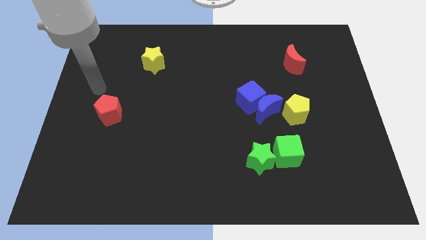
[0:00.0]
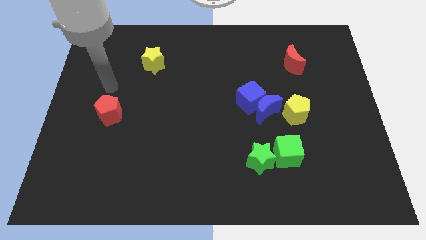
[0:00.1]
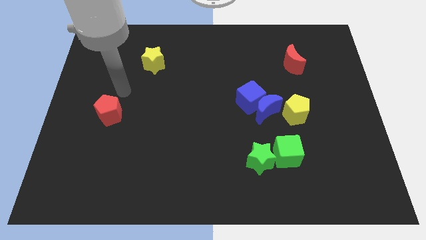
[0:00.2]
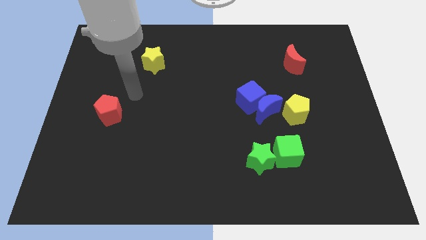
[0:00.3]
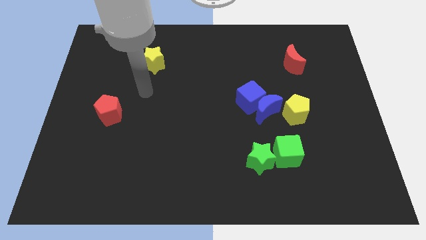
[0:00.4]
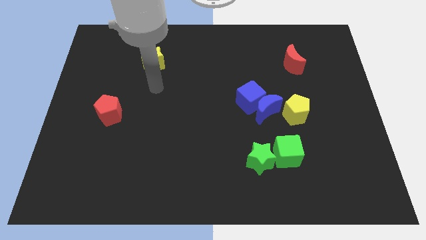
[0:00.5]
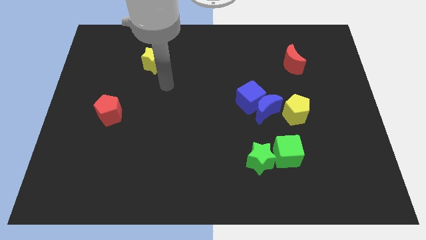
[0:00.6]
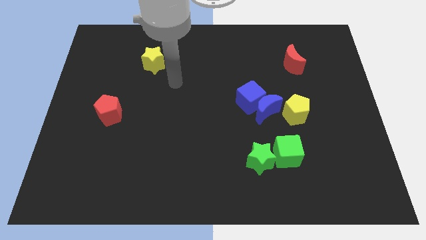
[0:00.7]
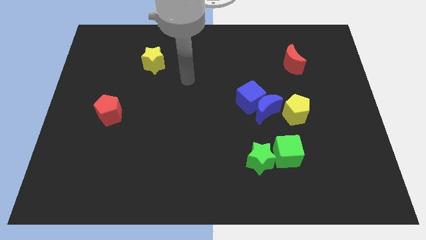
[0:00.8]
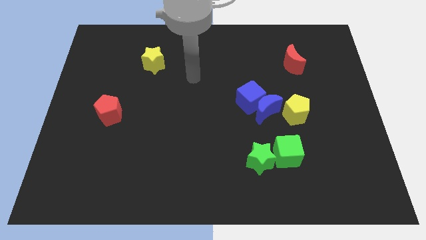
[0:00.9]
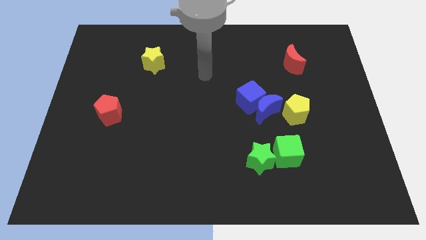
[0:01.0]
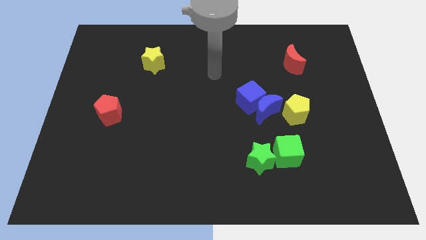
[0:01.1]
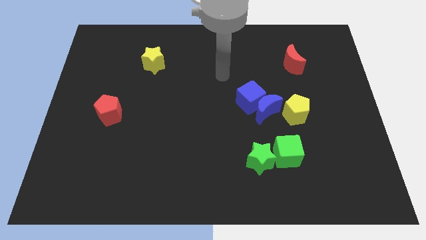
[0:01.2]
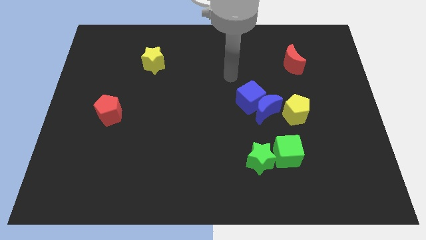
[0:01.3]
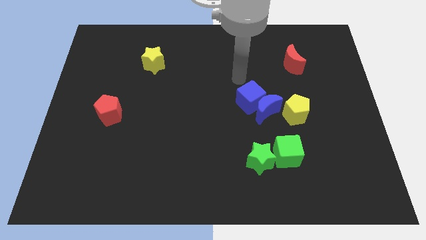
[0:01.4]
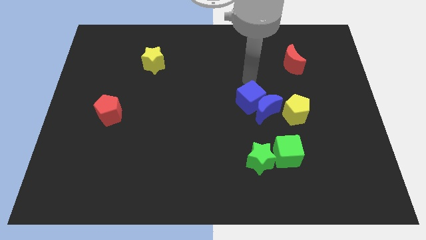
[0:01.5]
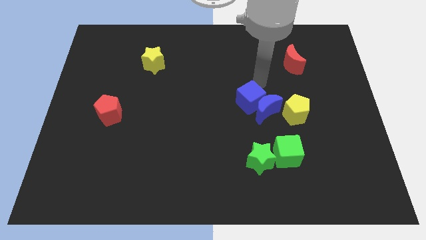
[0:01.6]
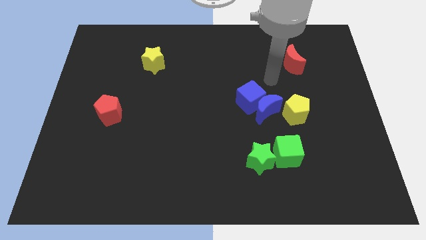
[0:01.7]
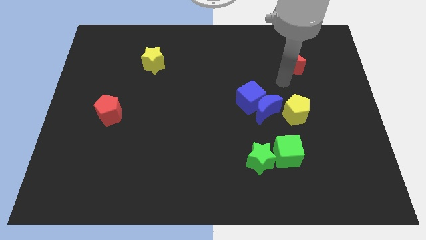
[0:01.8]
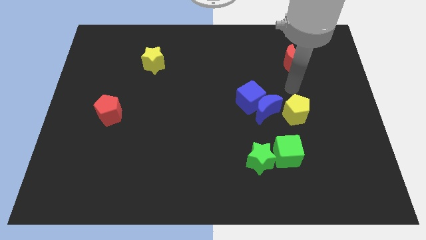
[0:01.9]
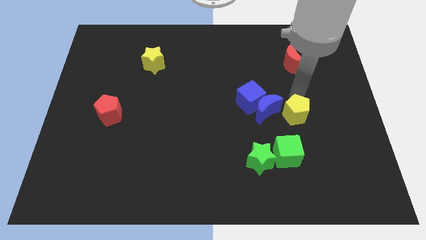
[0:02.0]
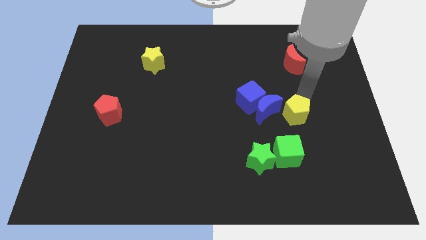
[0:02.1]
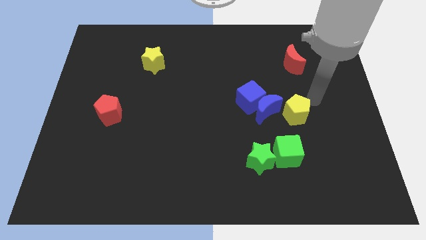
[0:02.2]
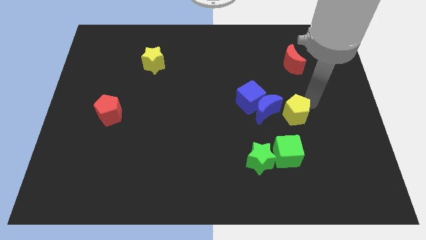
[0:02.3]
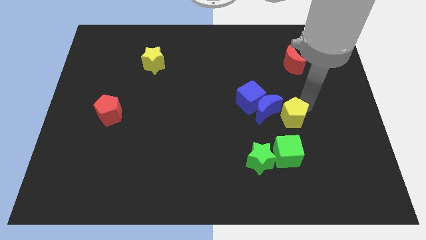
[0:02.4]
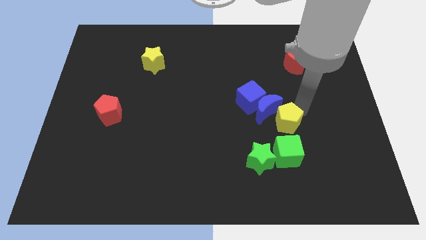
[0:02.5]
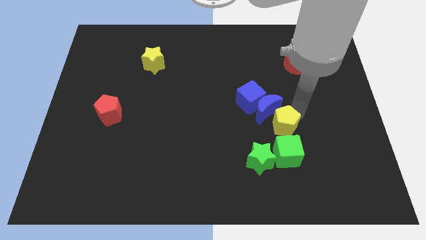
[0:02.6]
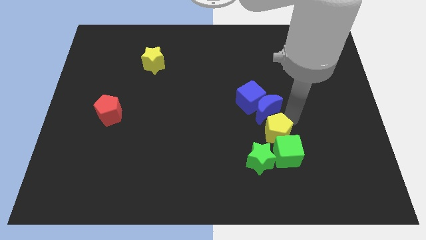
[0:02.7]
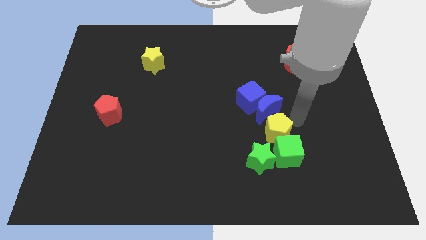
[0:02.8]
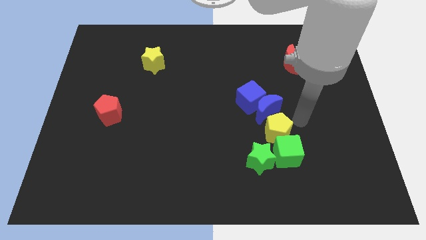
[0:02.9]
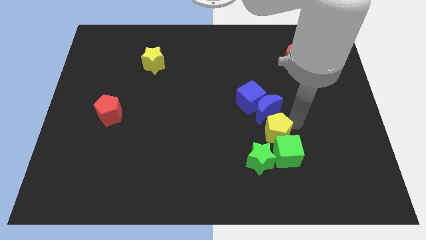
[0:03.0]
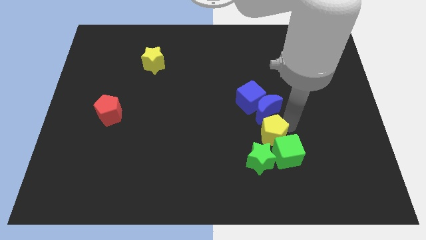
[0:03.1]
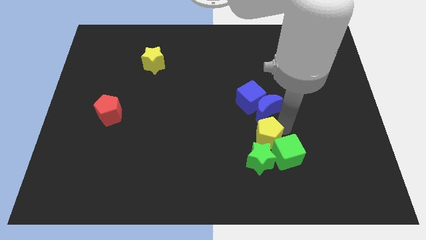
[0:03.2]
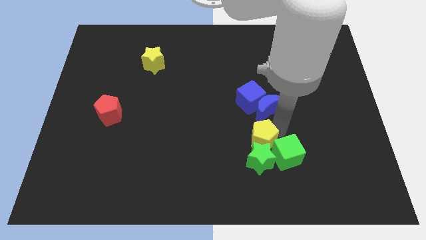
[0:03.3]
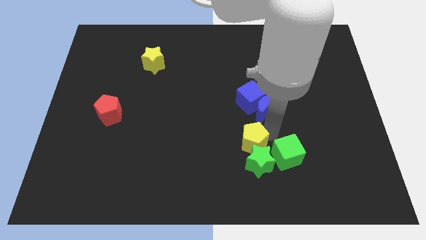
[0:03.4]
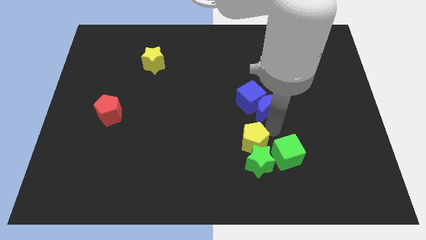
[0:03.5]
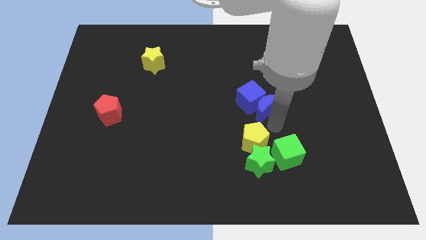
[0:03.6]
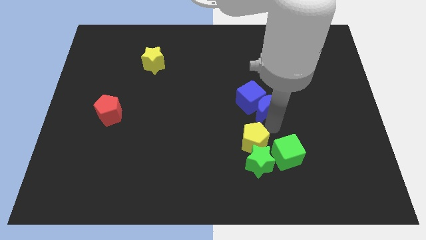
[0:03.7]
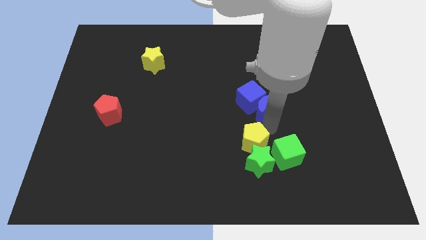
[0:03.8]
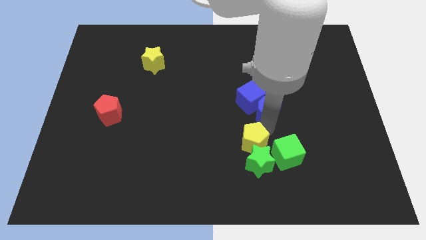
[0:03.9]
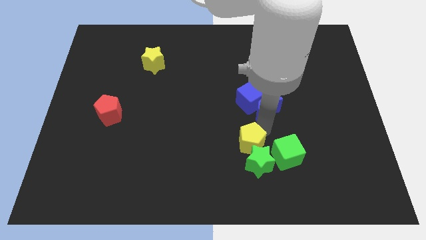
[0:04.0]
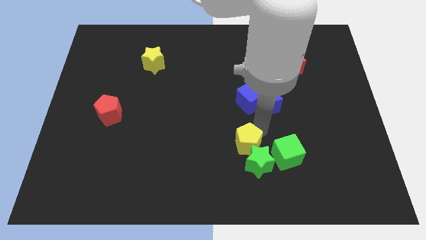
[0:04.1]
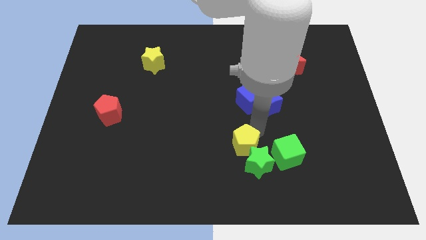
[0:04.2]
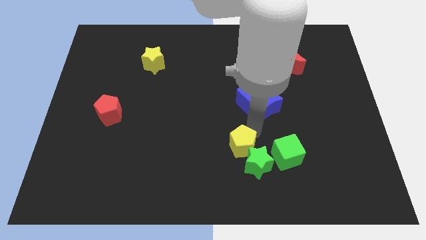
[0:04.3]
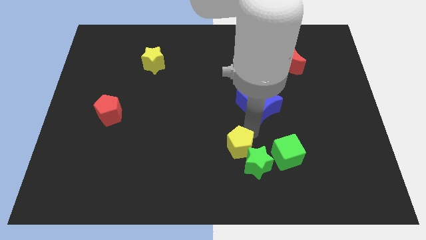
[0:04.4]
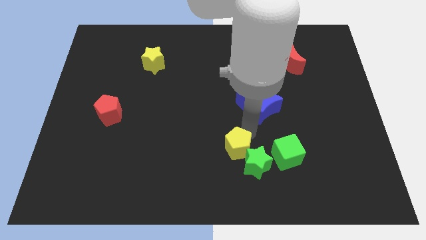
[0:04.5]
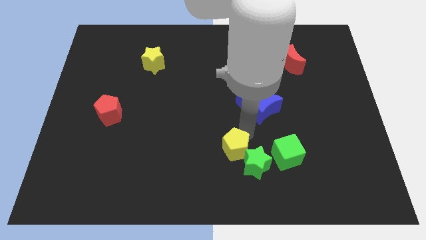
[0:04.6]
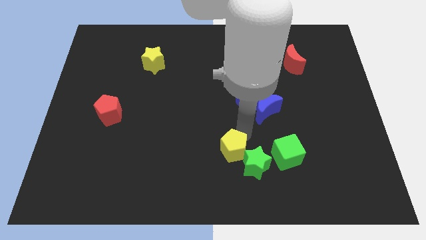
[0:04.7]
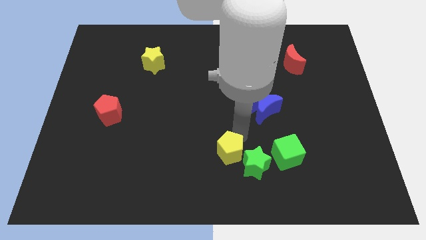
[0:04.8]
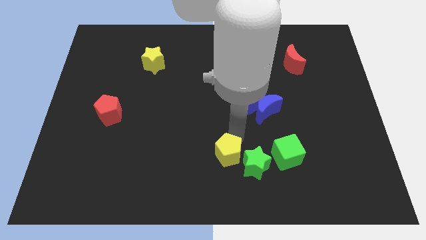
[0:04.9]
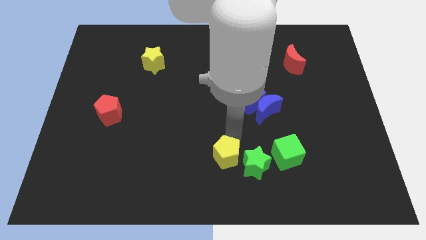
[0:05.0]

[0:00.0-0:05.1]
push the yellow pentagon to the bottom

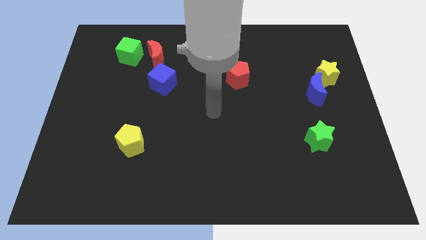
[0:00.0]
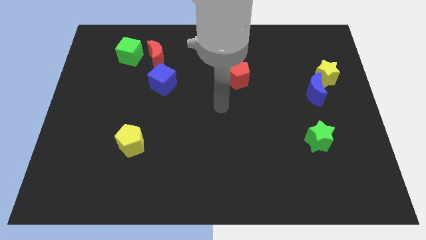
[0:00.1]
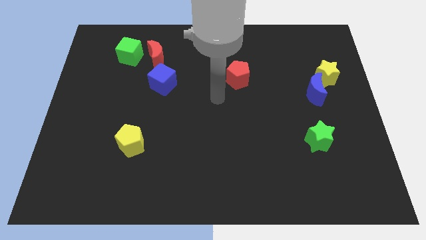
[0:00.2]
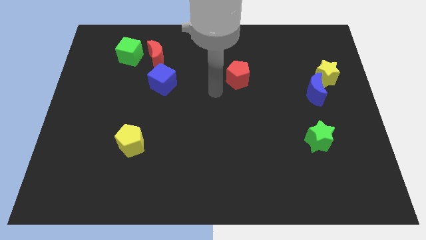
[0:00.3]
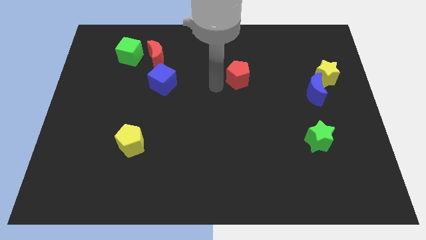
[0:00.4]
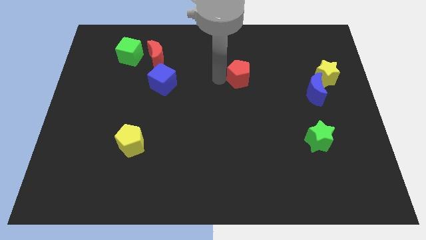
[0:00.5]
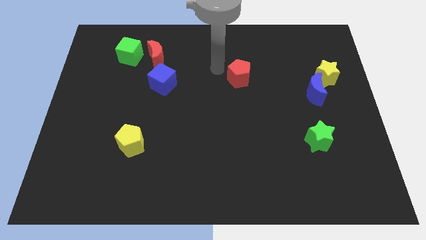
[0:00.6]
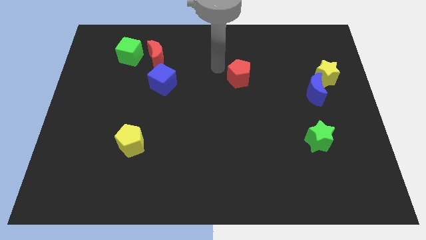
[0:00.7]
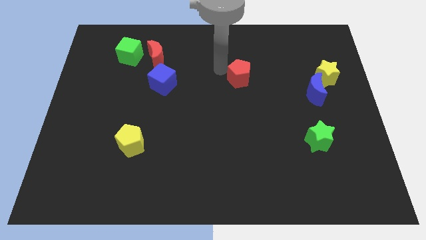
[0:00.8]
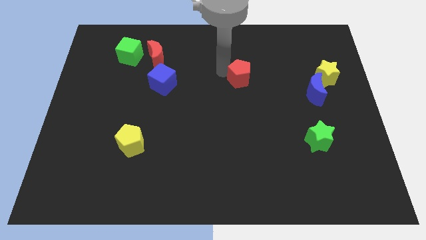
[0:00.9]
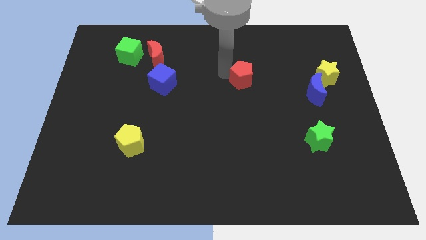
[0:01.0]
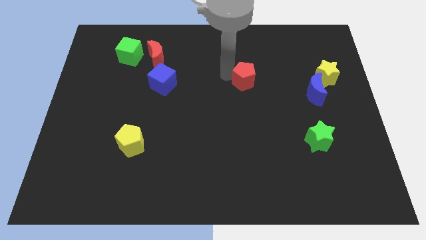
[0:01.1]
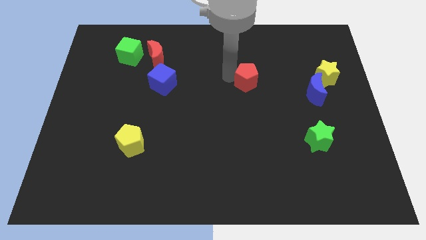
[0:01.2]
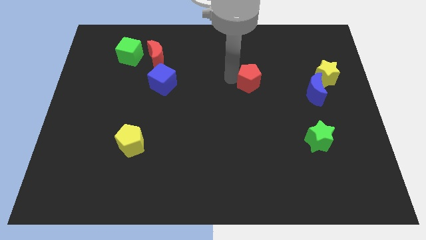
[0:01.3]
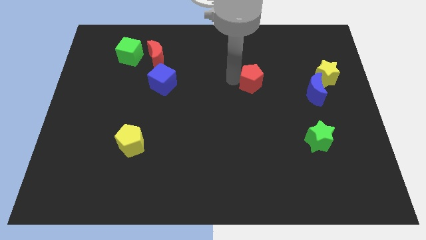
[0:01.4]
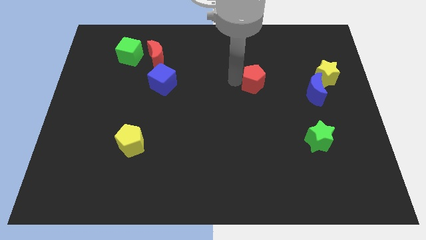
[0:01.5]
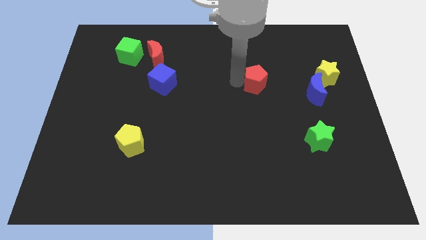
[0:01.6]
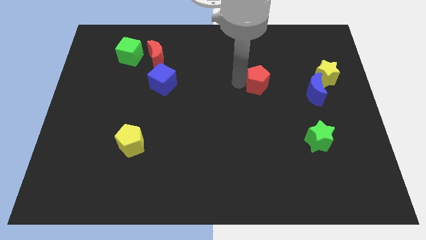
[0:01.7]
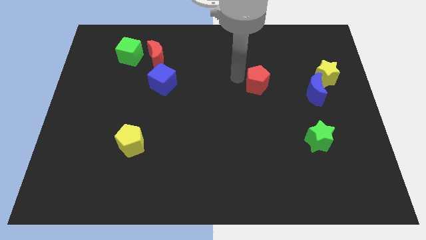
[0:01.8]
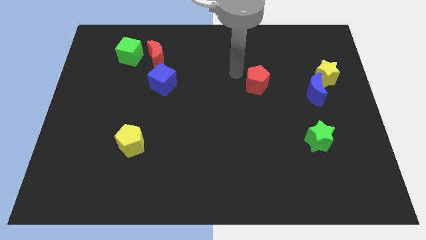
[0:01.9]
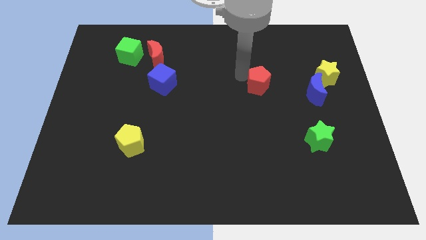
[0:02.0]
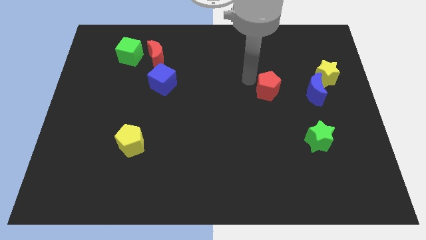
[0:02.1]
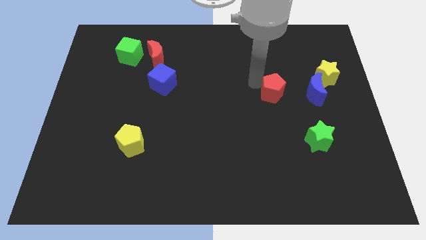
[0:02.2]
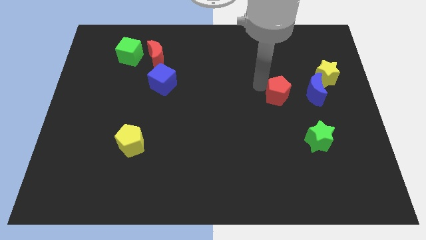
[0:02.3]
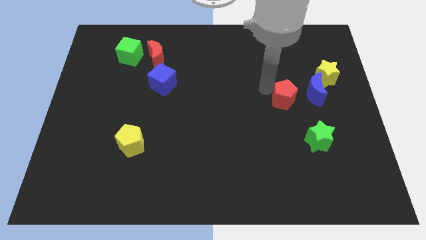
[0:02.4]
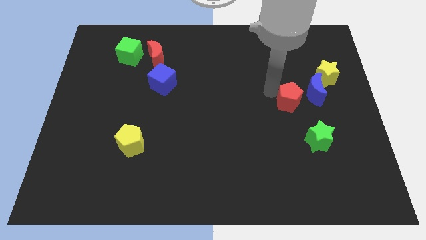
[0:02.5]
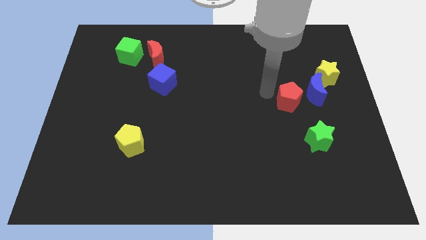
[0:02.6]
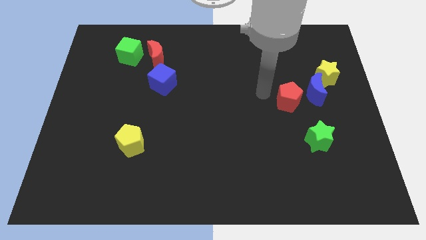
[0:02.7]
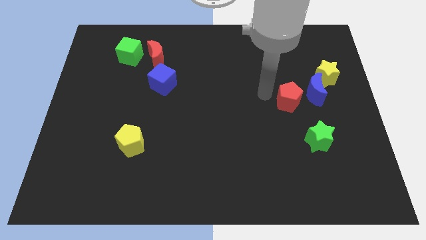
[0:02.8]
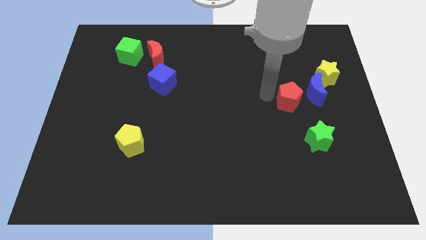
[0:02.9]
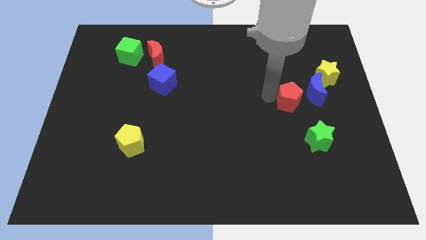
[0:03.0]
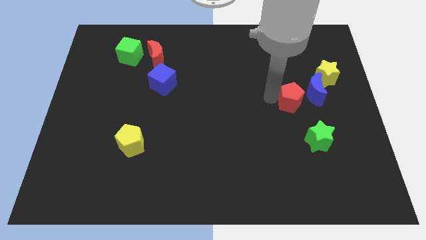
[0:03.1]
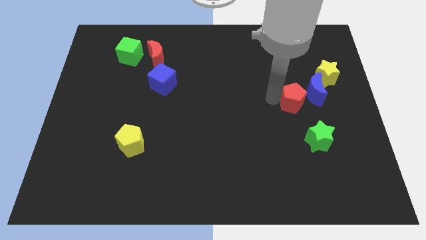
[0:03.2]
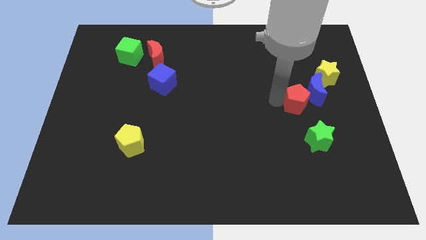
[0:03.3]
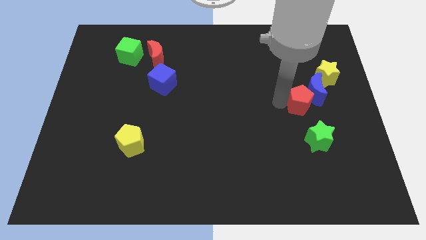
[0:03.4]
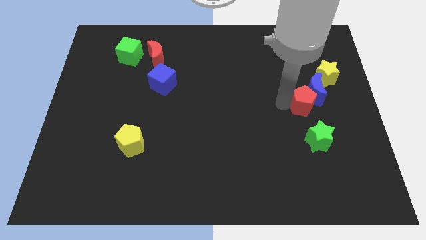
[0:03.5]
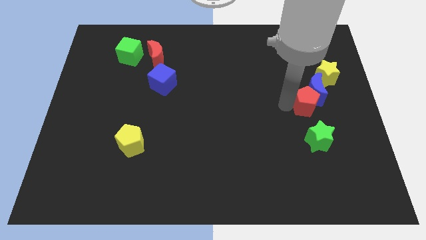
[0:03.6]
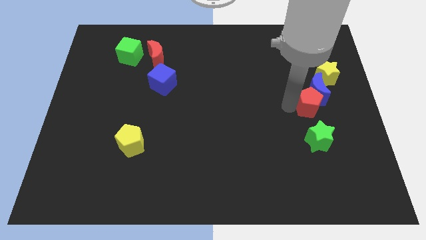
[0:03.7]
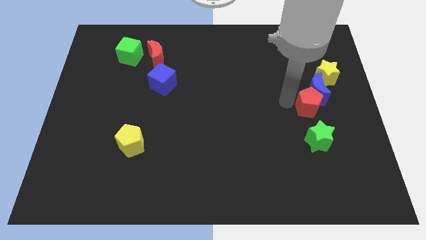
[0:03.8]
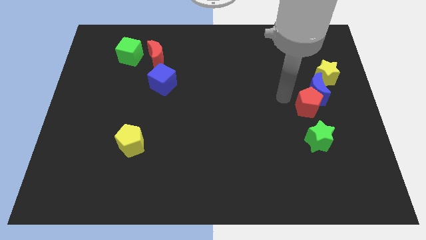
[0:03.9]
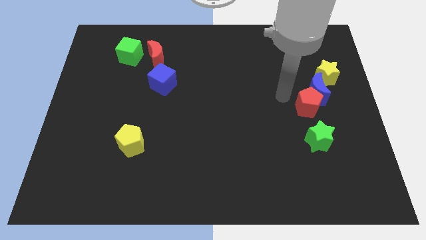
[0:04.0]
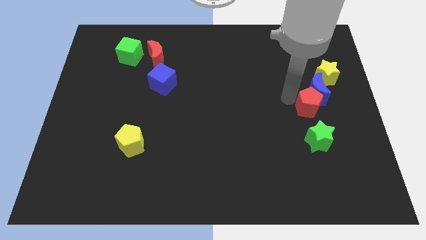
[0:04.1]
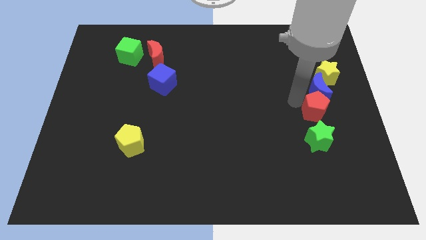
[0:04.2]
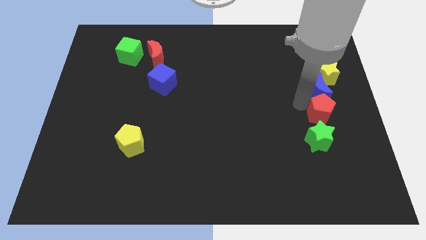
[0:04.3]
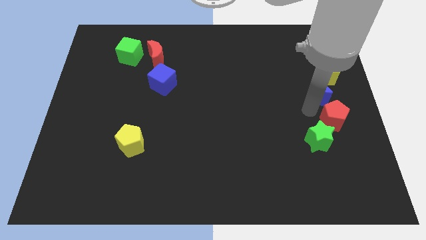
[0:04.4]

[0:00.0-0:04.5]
push the red pentagon to the center right
